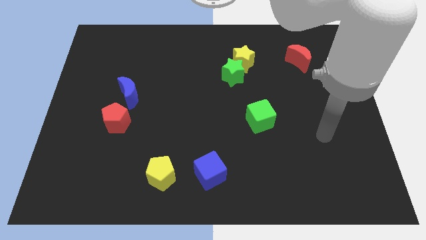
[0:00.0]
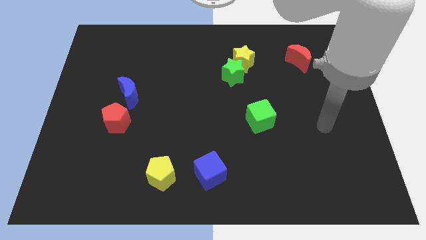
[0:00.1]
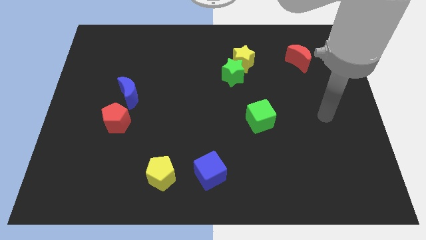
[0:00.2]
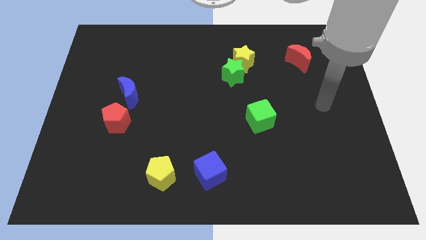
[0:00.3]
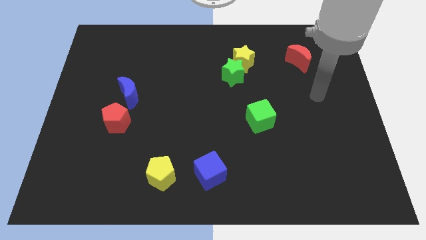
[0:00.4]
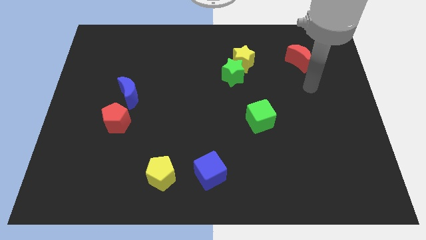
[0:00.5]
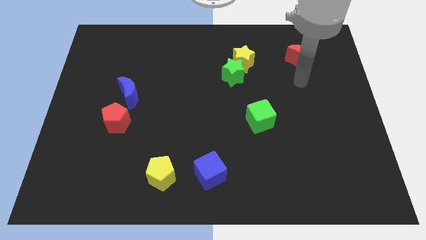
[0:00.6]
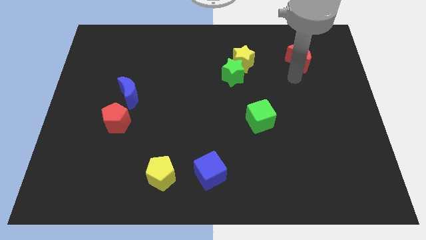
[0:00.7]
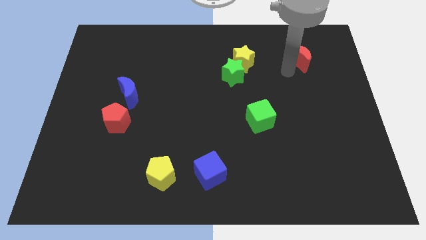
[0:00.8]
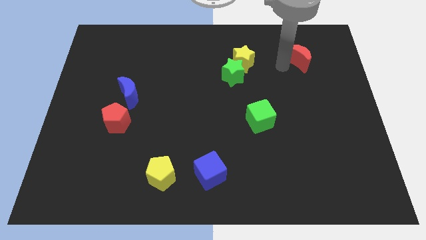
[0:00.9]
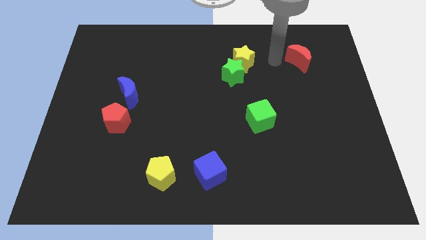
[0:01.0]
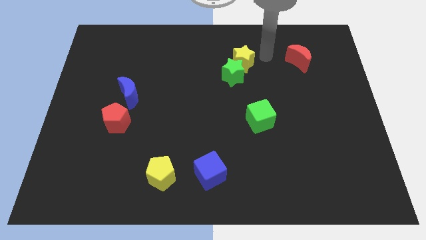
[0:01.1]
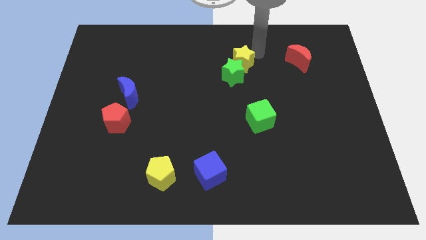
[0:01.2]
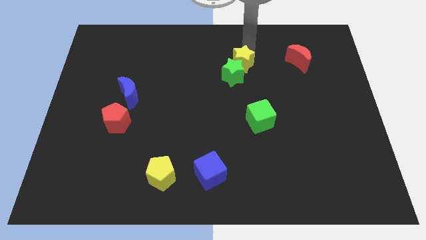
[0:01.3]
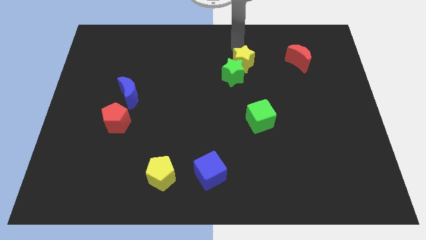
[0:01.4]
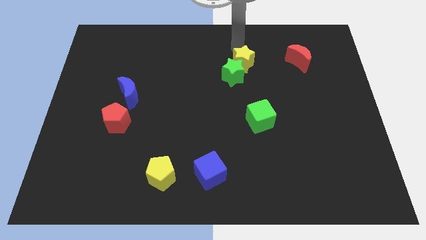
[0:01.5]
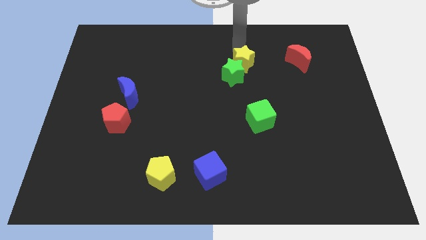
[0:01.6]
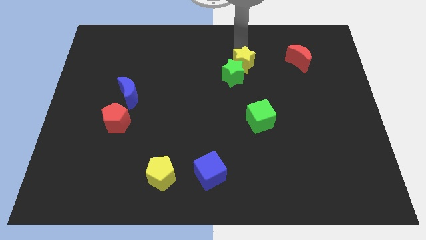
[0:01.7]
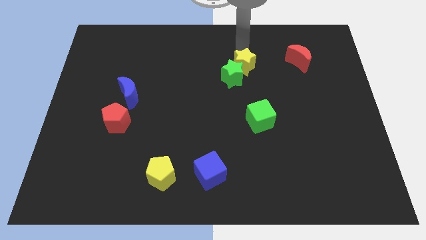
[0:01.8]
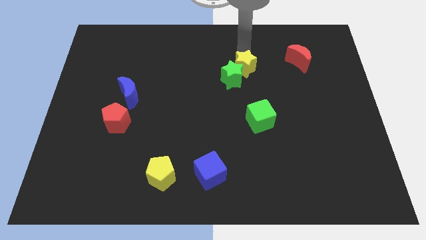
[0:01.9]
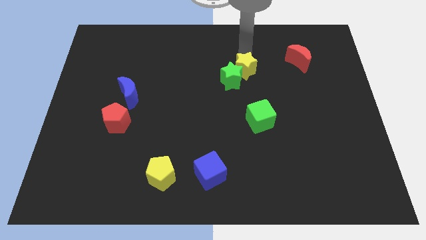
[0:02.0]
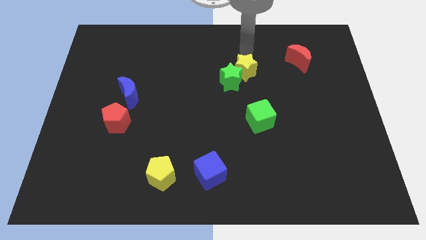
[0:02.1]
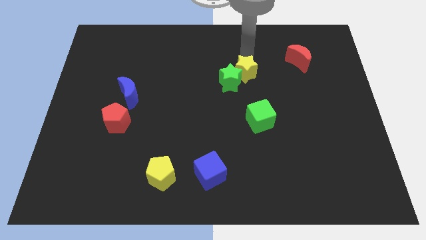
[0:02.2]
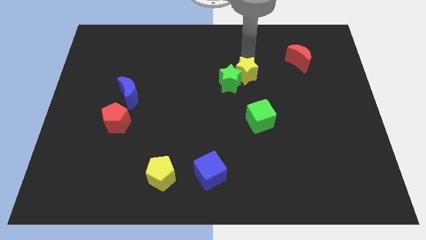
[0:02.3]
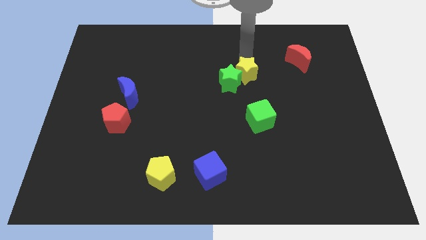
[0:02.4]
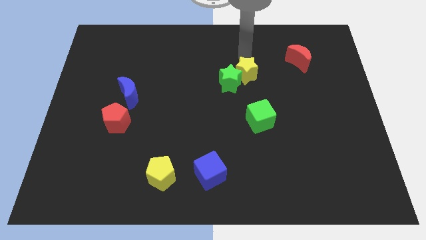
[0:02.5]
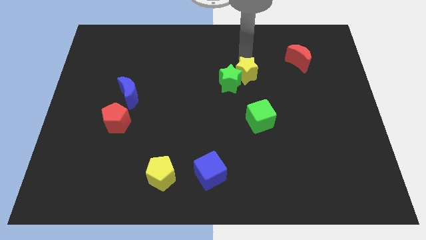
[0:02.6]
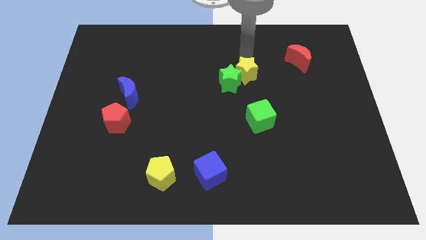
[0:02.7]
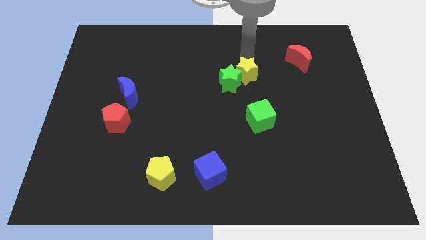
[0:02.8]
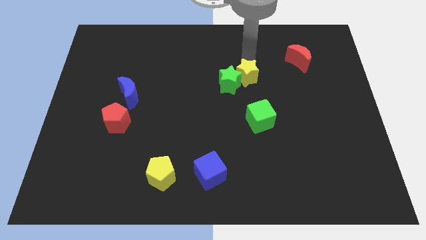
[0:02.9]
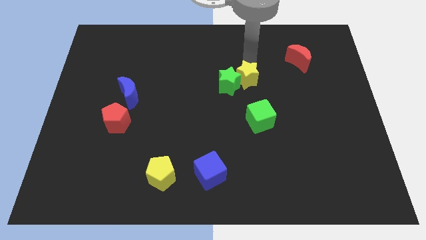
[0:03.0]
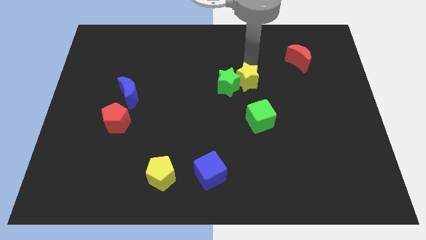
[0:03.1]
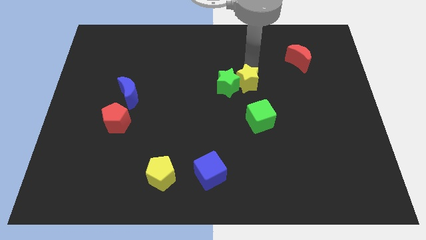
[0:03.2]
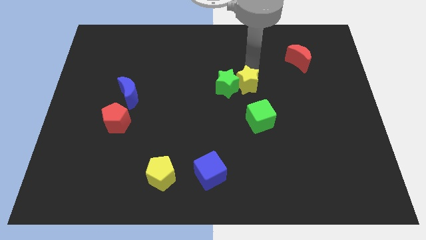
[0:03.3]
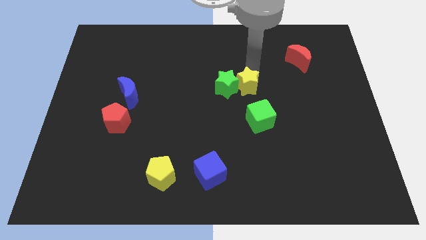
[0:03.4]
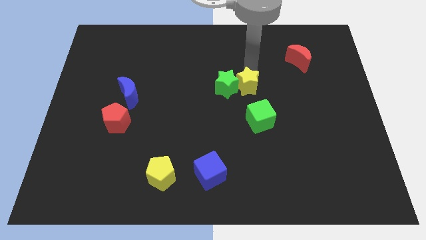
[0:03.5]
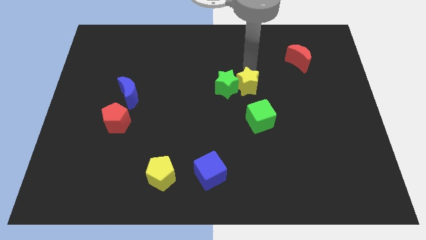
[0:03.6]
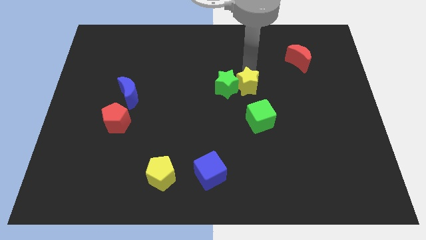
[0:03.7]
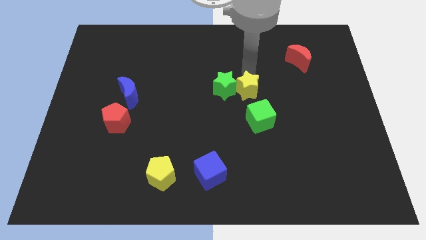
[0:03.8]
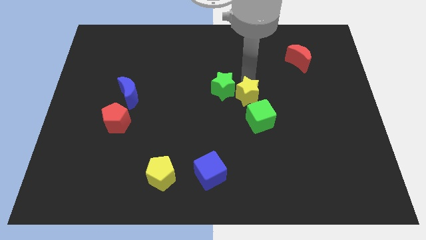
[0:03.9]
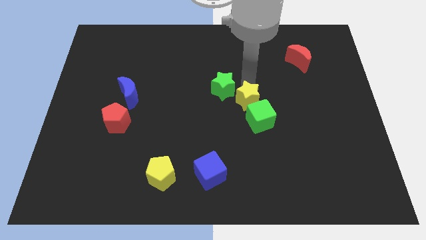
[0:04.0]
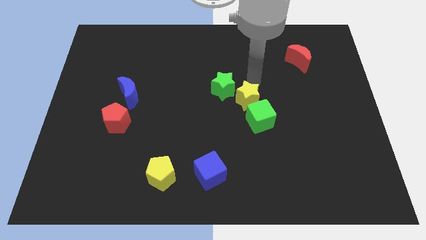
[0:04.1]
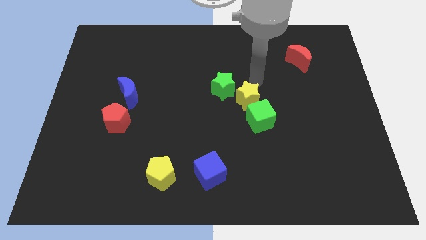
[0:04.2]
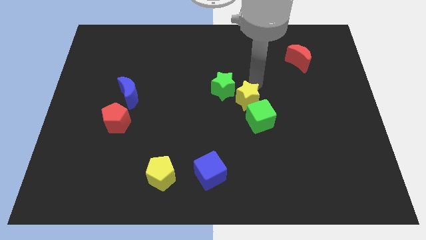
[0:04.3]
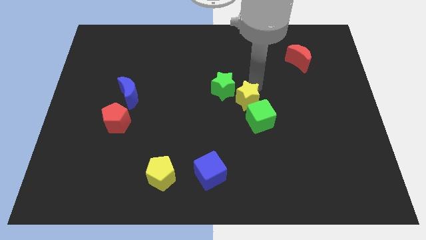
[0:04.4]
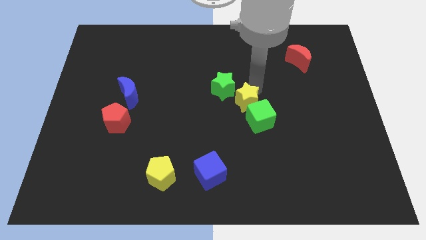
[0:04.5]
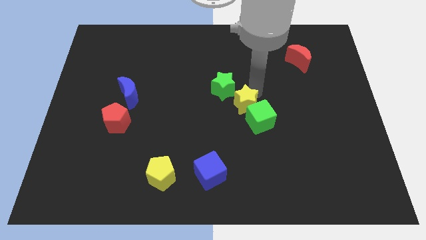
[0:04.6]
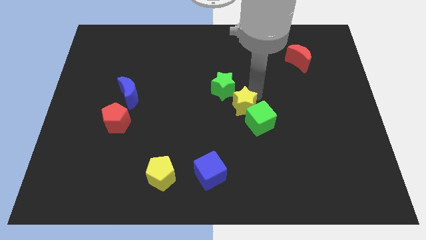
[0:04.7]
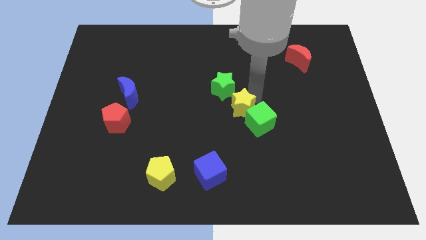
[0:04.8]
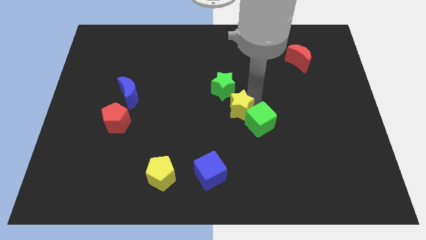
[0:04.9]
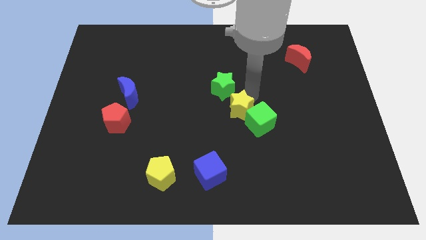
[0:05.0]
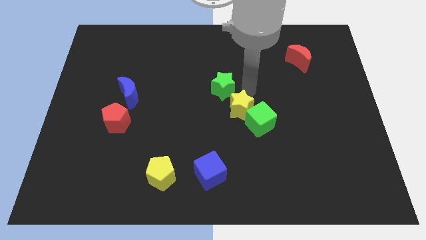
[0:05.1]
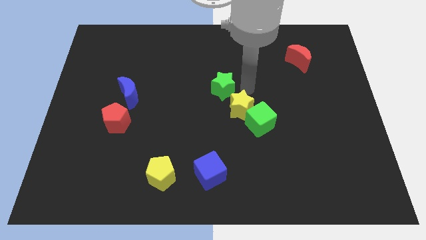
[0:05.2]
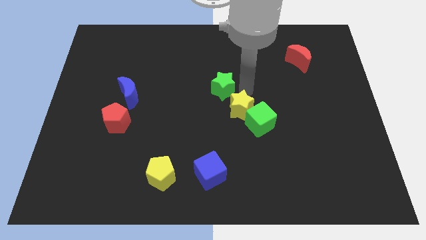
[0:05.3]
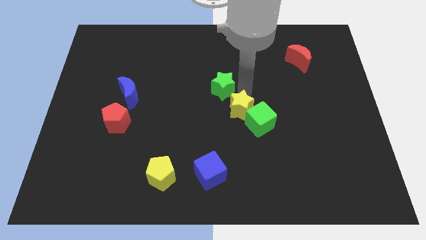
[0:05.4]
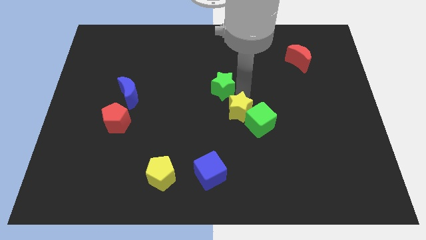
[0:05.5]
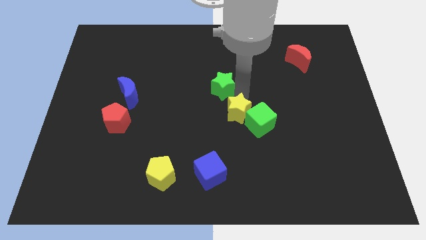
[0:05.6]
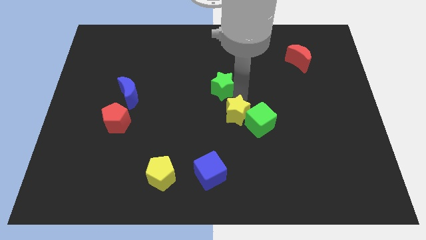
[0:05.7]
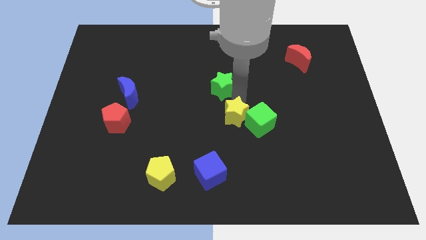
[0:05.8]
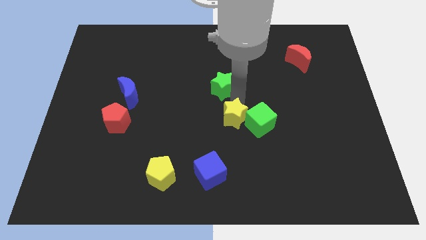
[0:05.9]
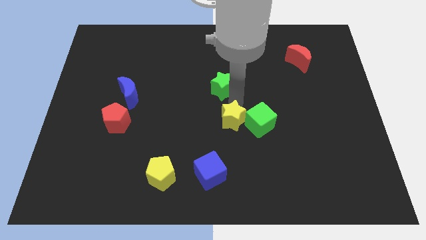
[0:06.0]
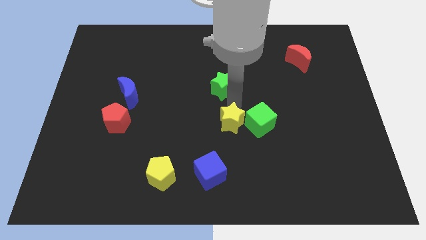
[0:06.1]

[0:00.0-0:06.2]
slide the yellow star to the bottom left of the green cube
